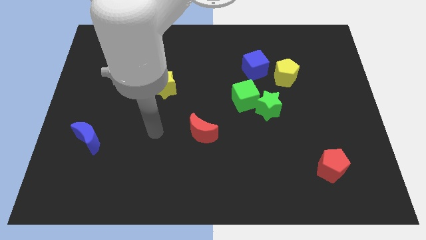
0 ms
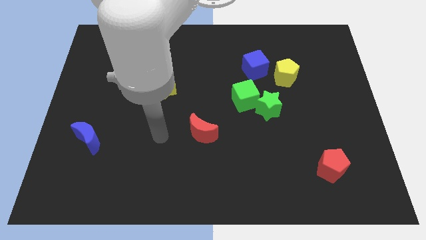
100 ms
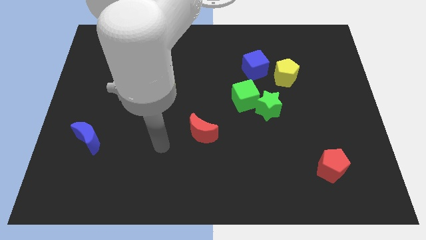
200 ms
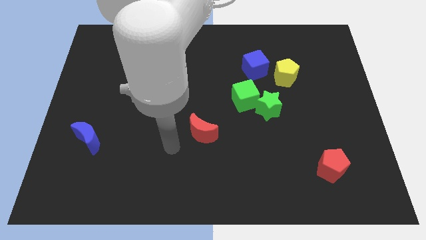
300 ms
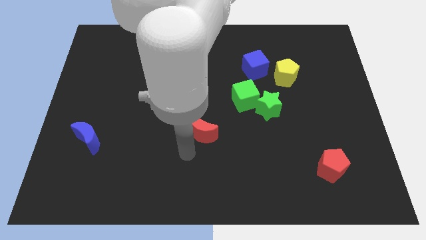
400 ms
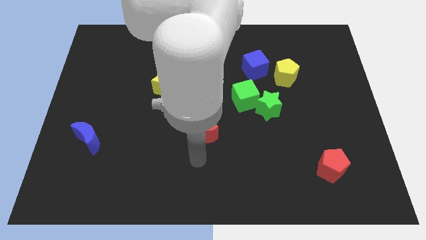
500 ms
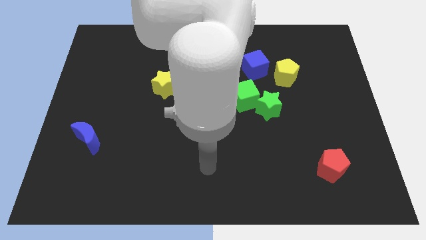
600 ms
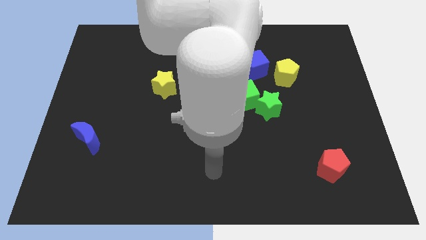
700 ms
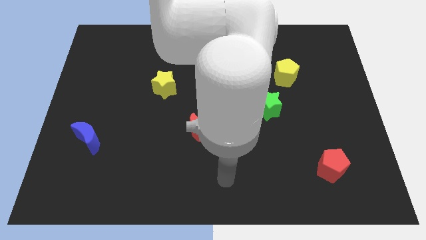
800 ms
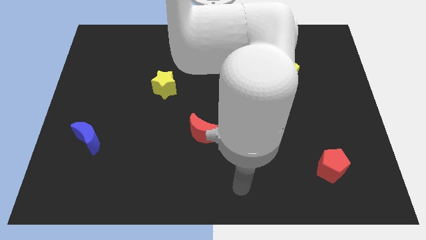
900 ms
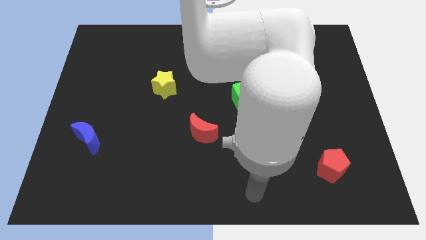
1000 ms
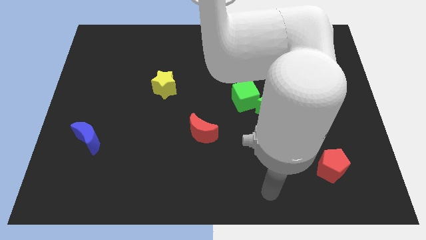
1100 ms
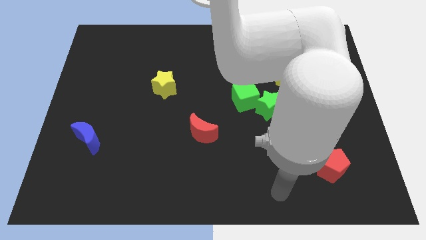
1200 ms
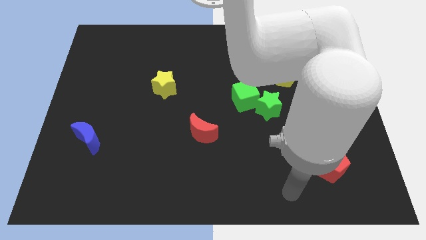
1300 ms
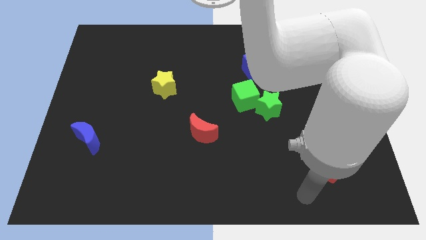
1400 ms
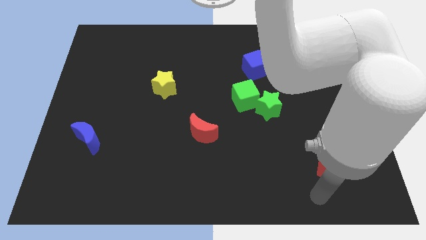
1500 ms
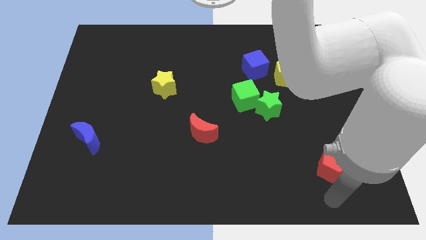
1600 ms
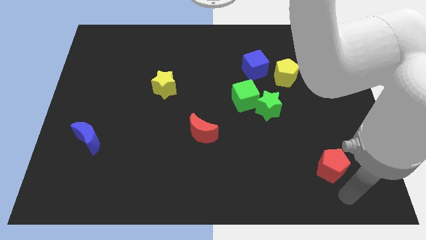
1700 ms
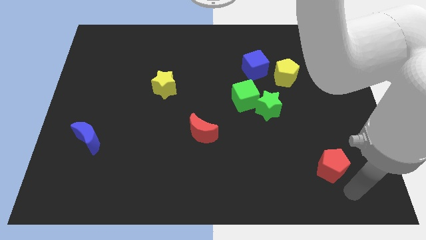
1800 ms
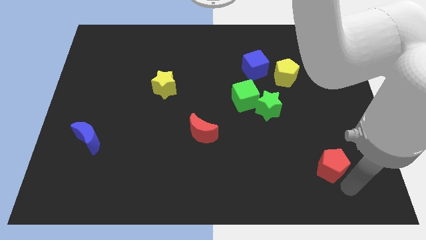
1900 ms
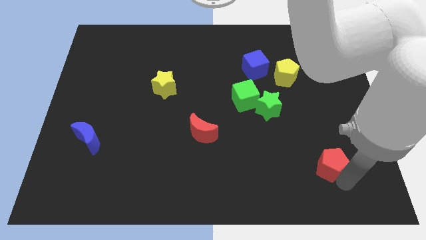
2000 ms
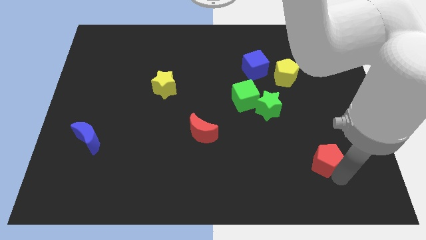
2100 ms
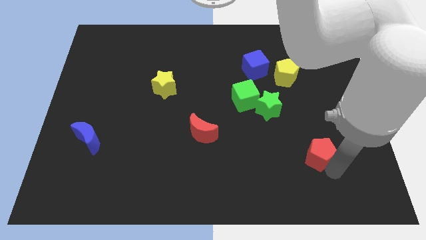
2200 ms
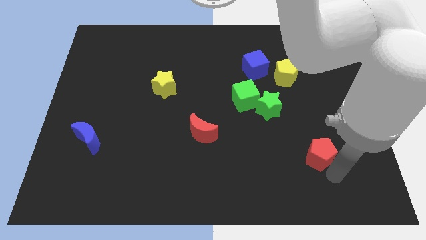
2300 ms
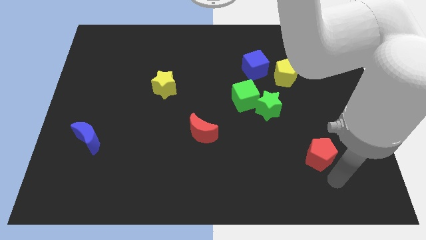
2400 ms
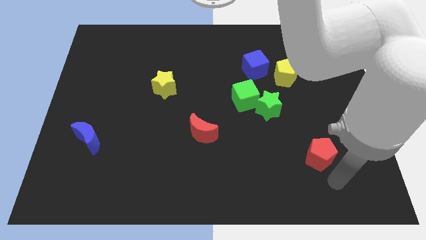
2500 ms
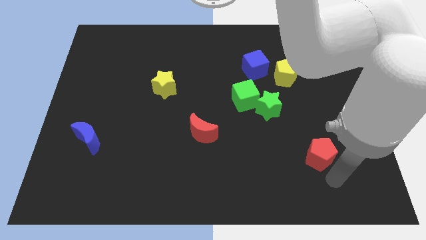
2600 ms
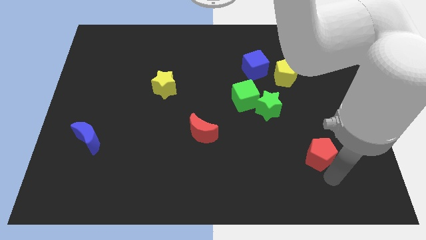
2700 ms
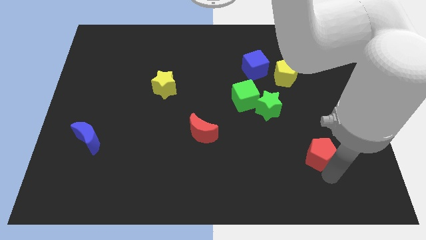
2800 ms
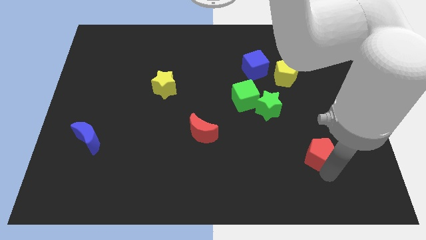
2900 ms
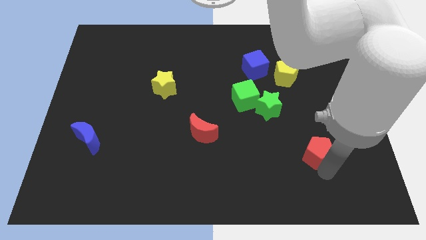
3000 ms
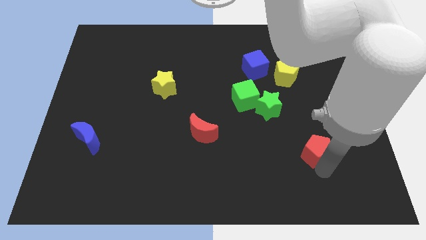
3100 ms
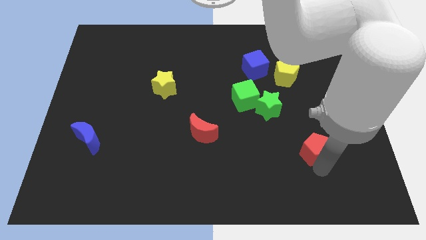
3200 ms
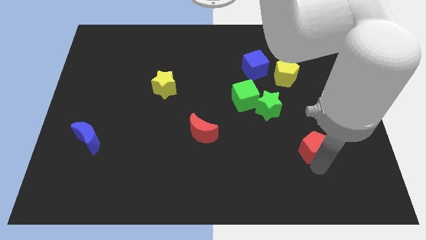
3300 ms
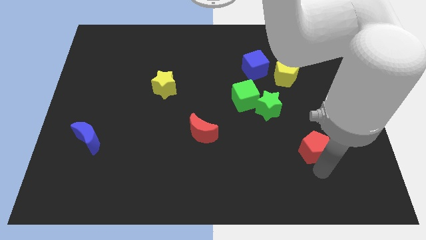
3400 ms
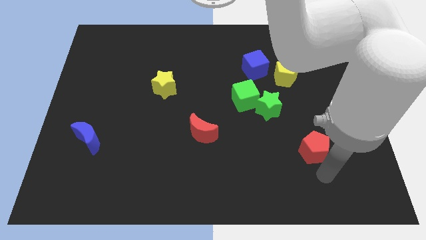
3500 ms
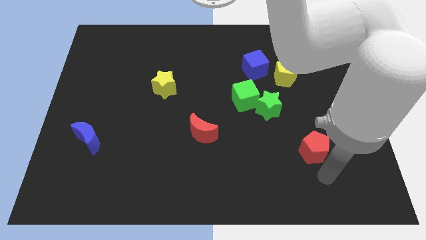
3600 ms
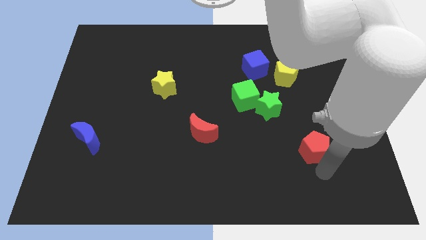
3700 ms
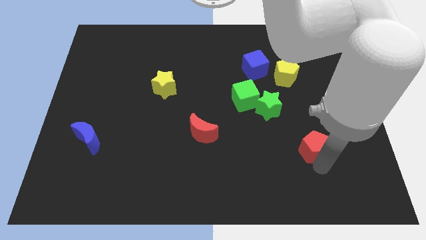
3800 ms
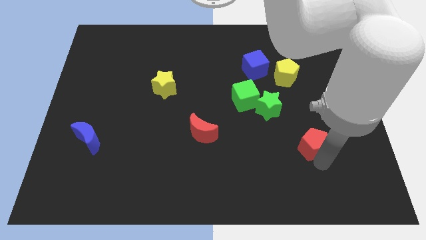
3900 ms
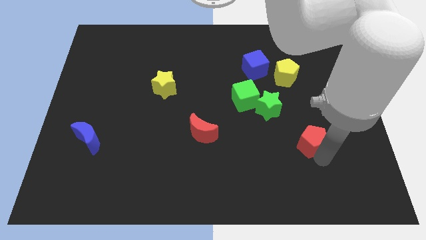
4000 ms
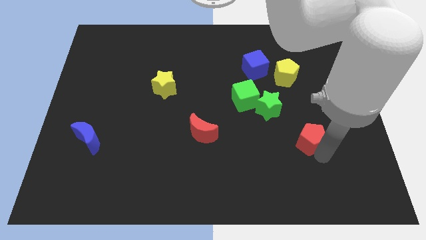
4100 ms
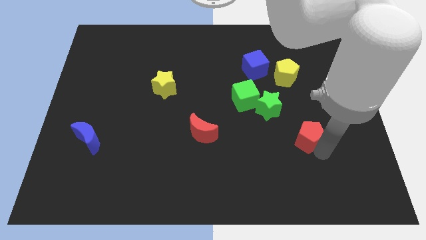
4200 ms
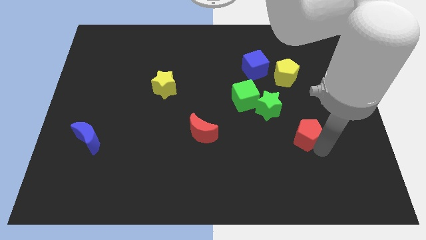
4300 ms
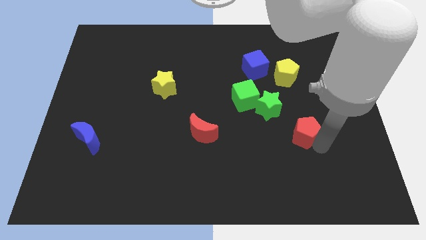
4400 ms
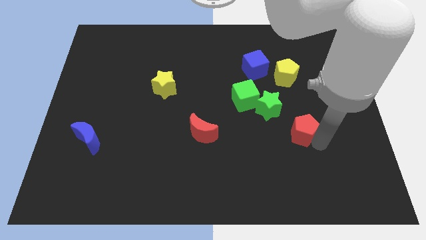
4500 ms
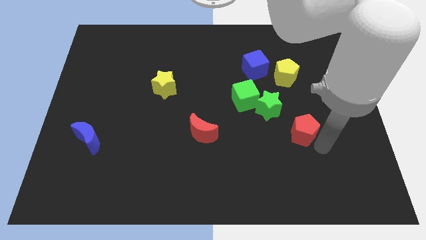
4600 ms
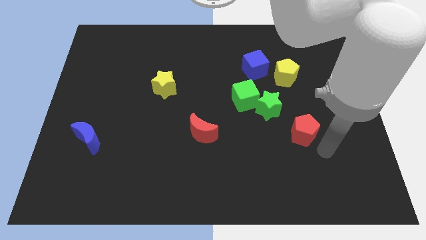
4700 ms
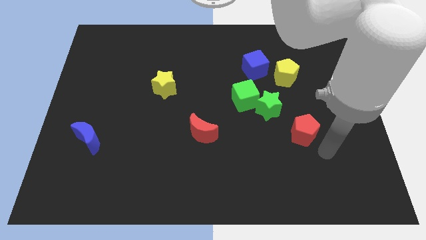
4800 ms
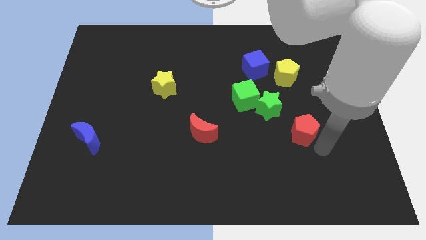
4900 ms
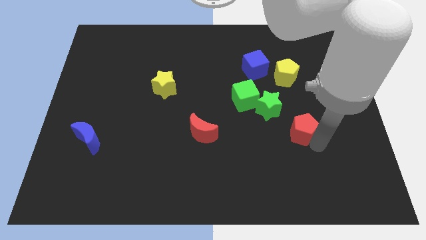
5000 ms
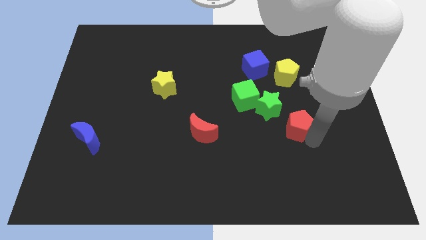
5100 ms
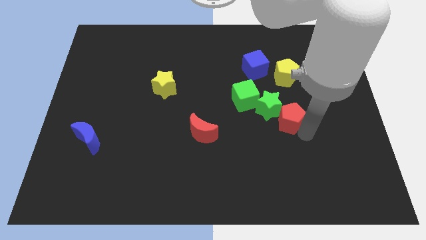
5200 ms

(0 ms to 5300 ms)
push the red pentagon next to the green star

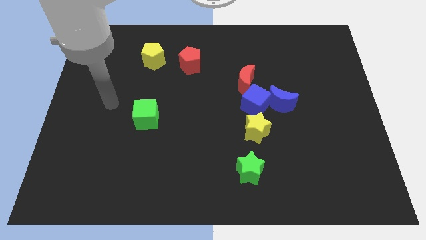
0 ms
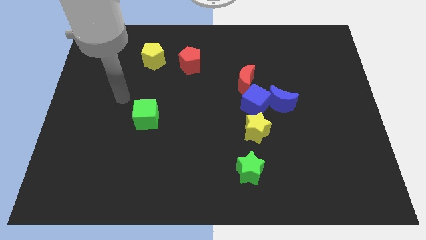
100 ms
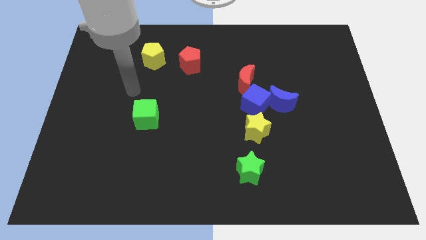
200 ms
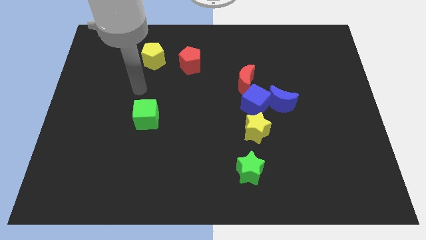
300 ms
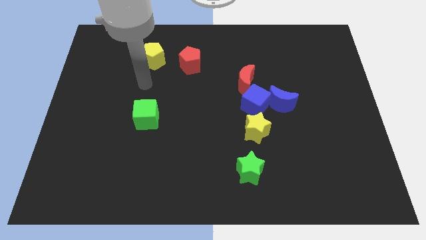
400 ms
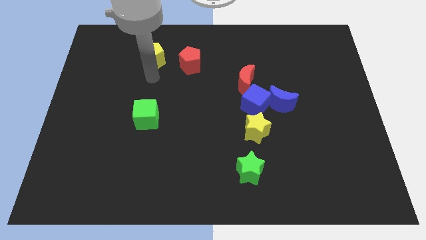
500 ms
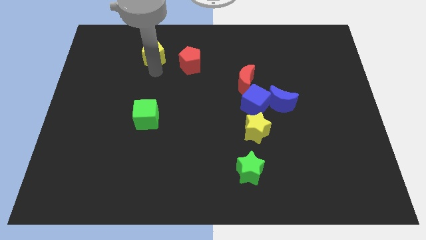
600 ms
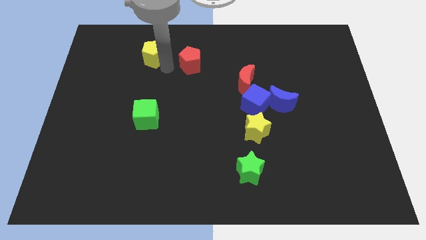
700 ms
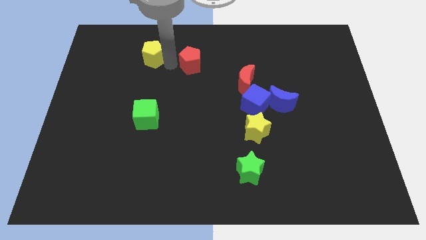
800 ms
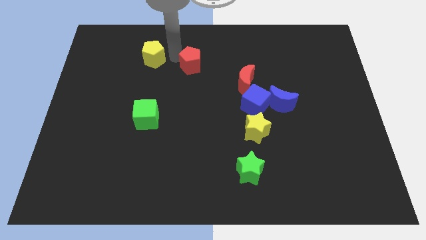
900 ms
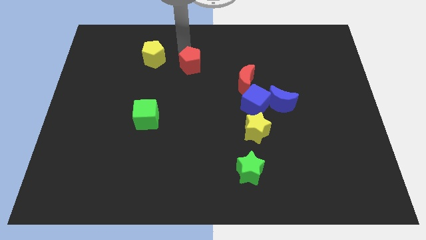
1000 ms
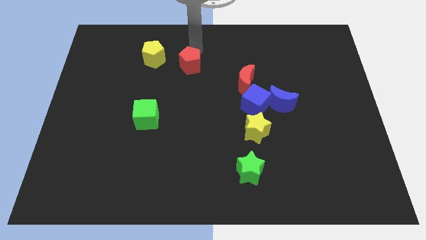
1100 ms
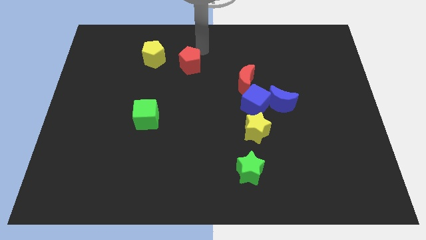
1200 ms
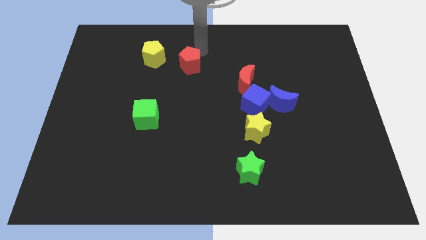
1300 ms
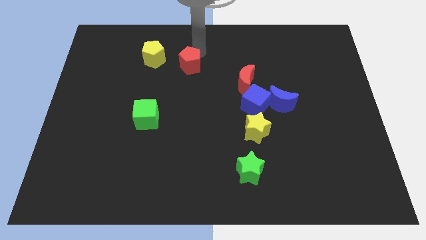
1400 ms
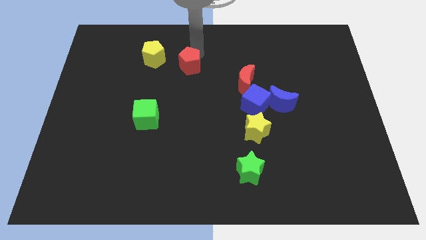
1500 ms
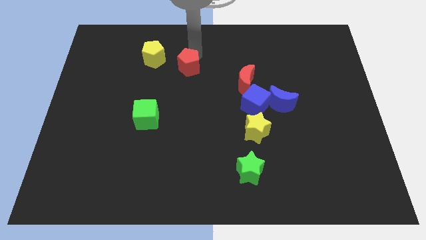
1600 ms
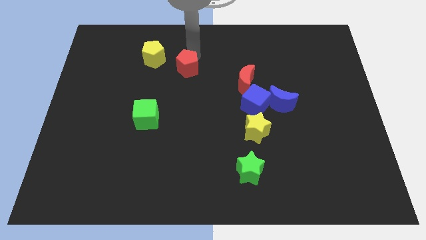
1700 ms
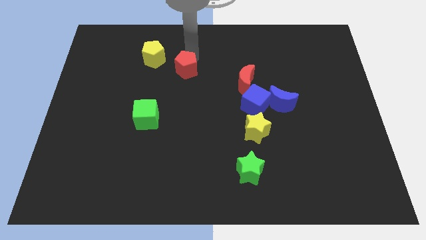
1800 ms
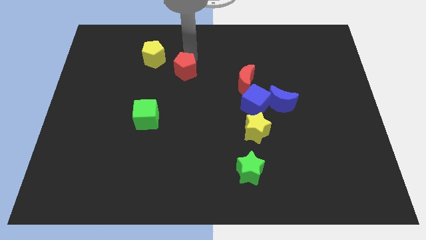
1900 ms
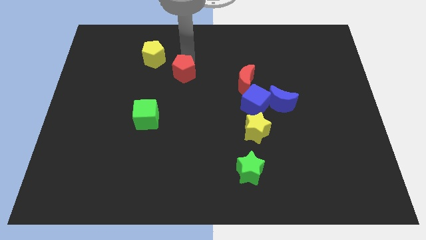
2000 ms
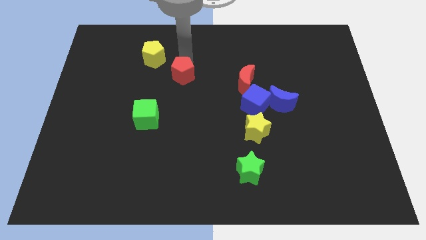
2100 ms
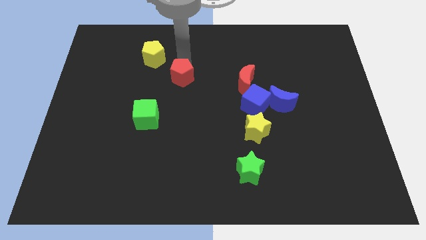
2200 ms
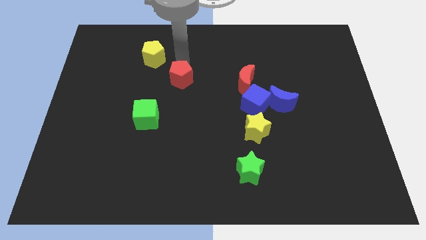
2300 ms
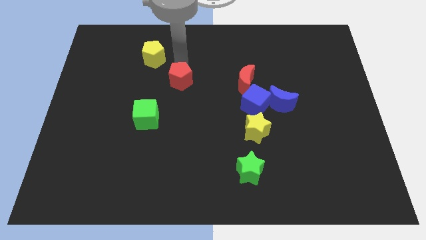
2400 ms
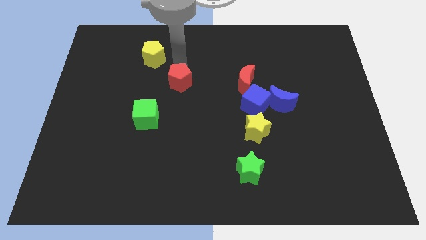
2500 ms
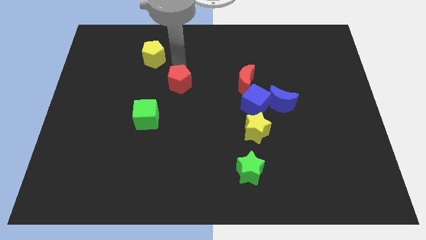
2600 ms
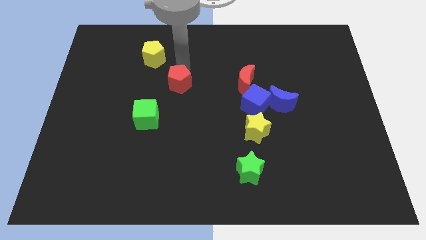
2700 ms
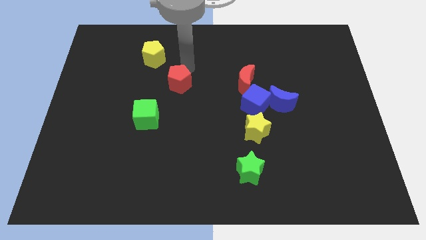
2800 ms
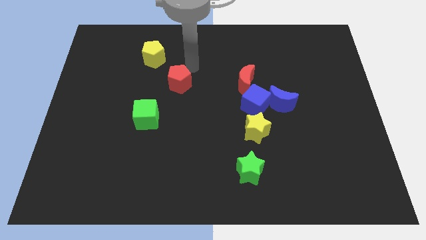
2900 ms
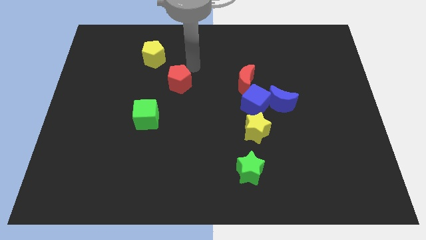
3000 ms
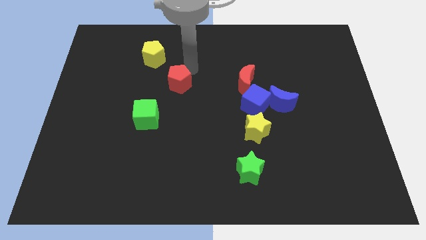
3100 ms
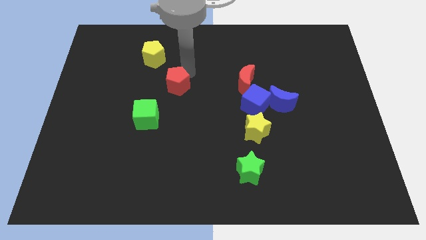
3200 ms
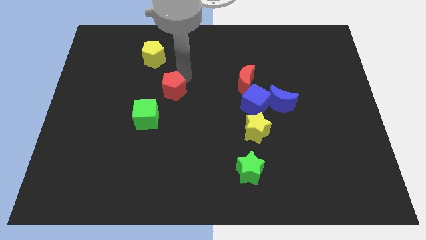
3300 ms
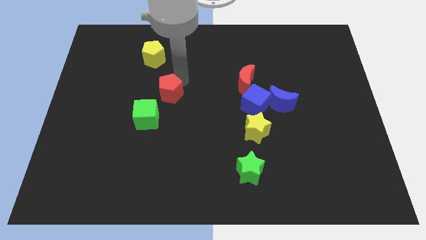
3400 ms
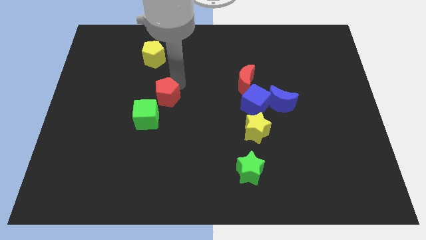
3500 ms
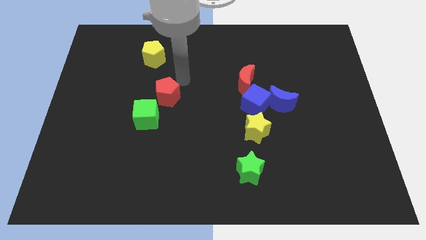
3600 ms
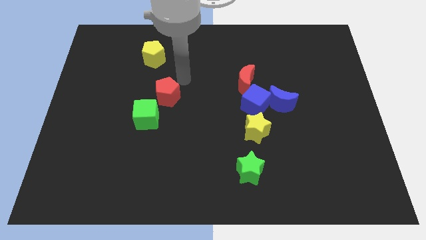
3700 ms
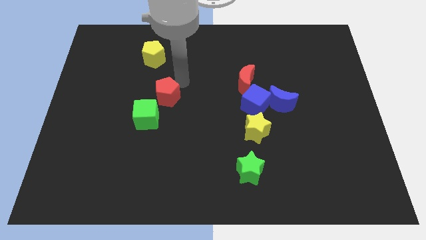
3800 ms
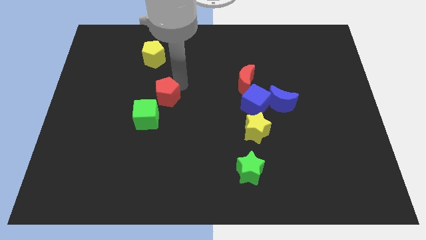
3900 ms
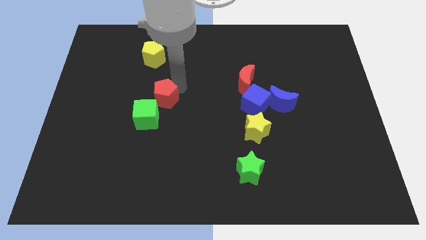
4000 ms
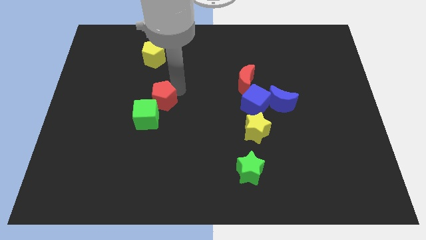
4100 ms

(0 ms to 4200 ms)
push the red pentagon towards the green cube
